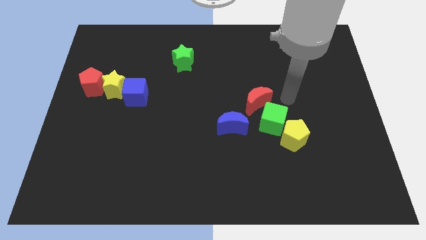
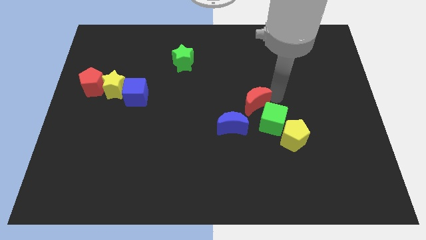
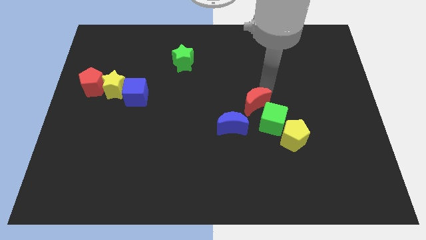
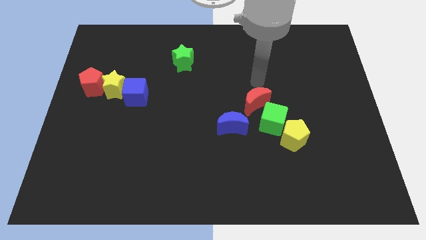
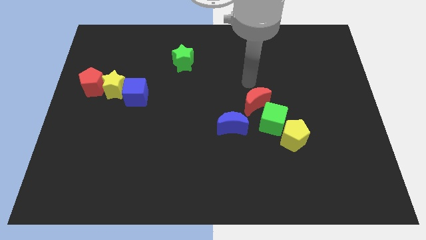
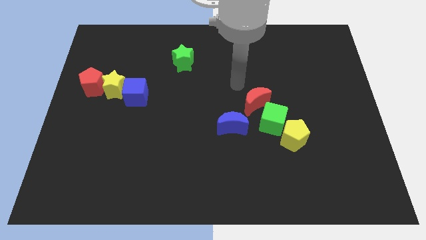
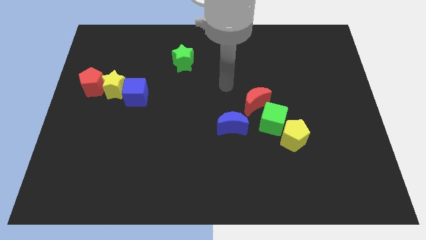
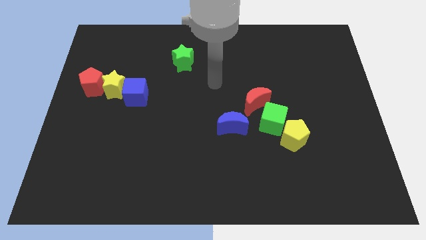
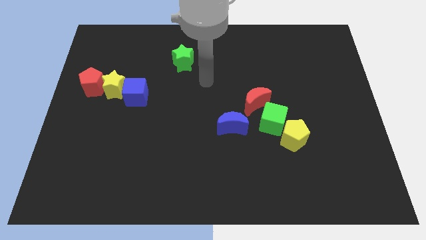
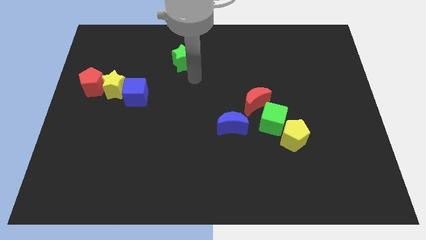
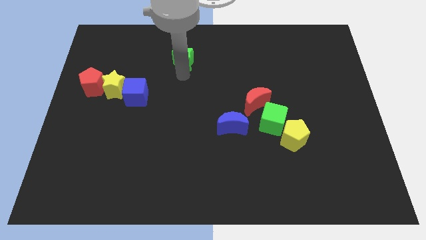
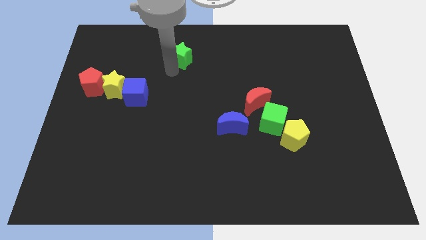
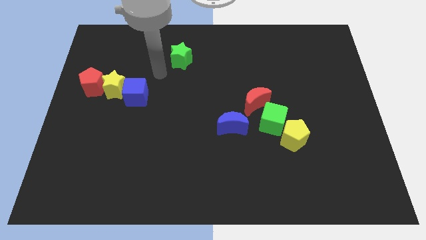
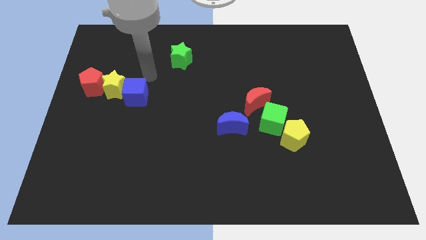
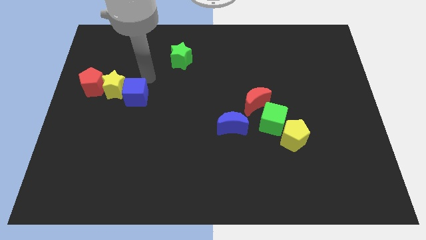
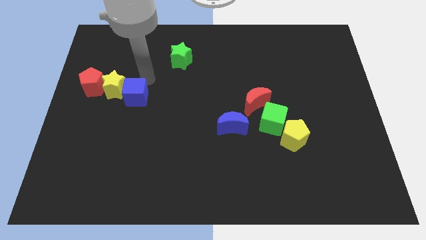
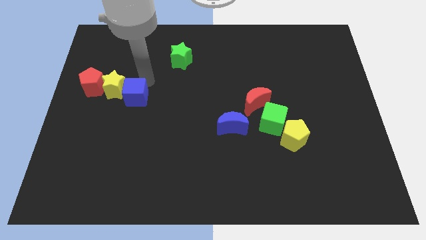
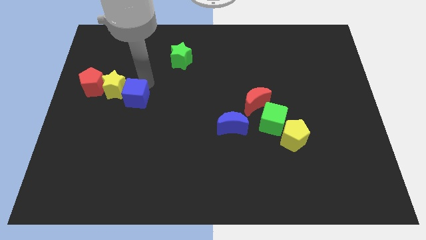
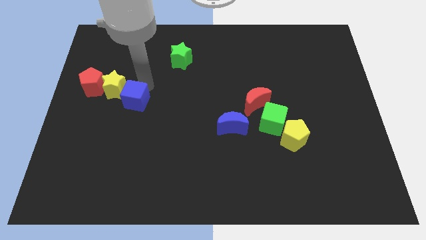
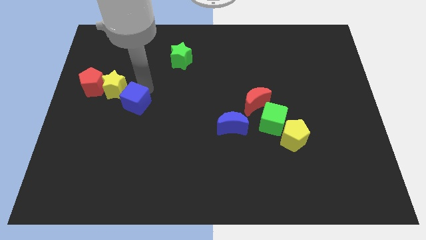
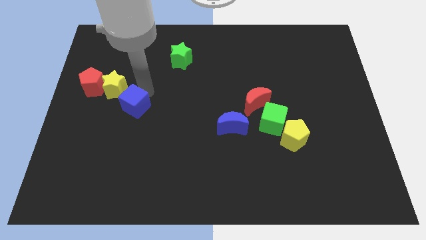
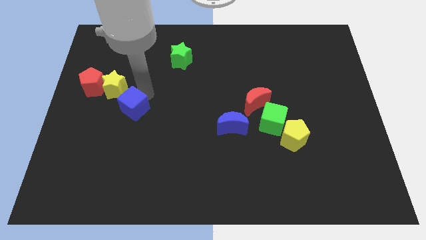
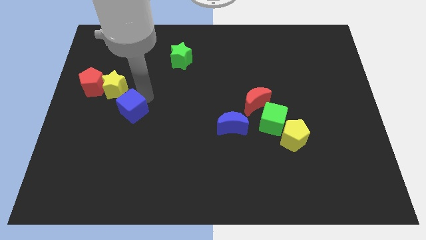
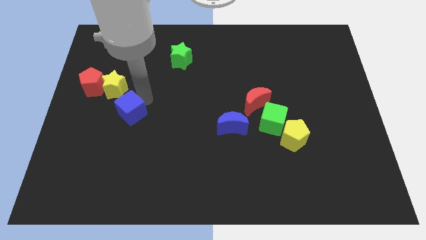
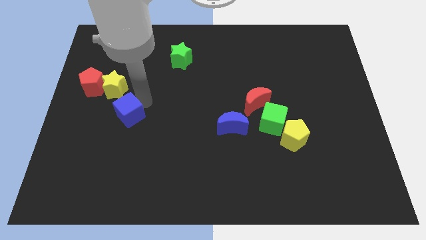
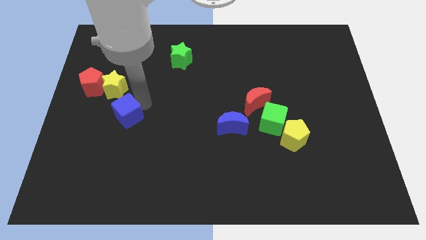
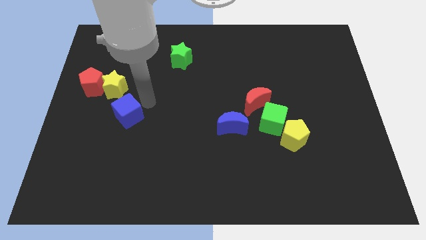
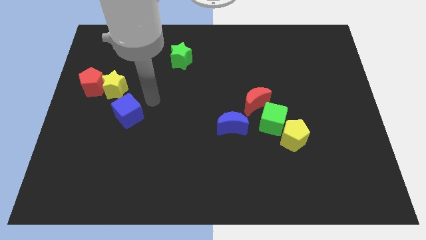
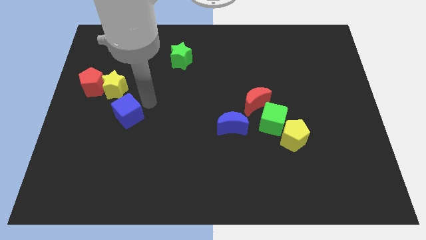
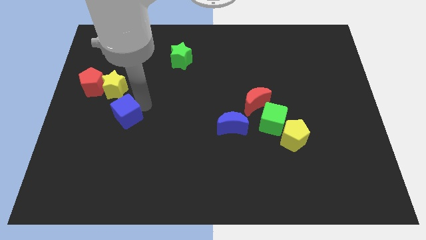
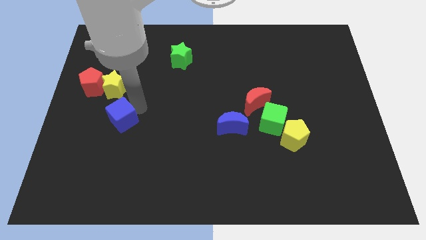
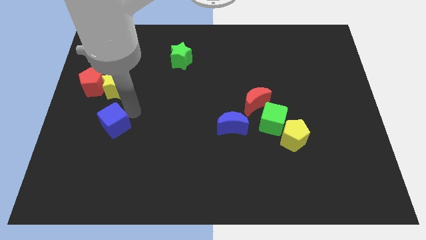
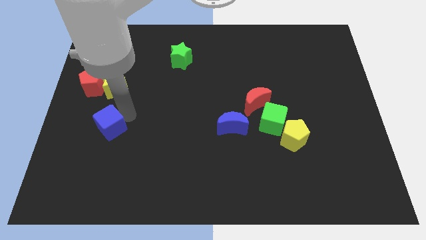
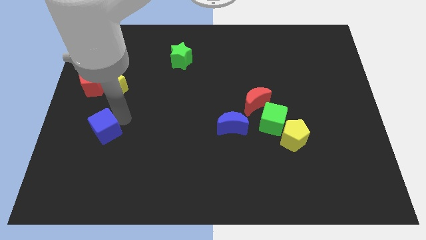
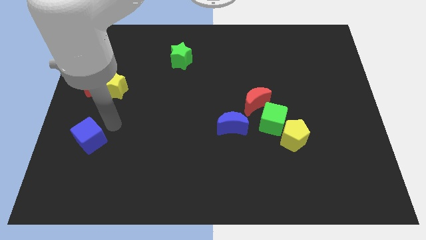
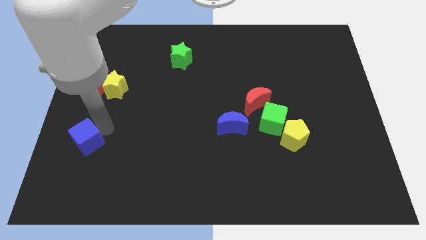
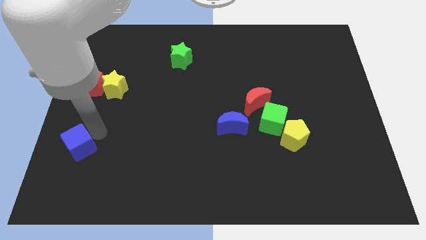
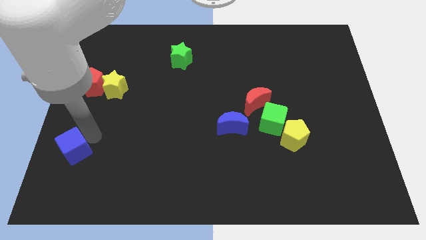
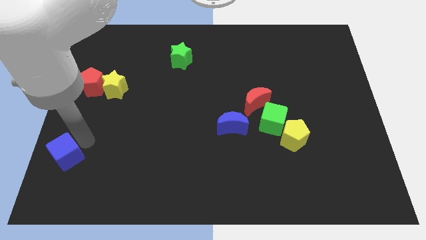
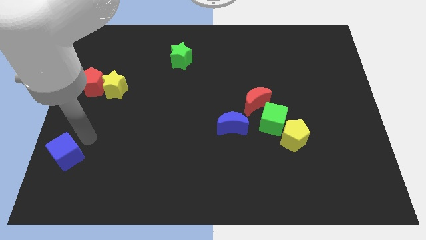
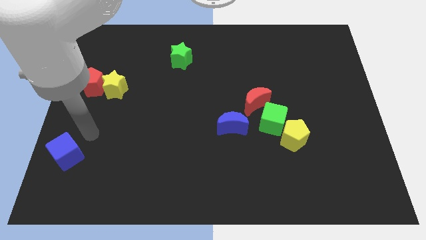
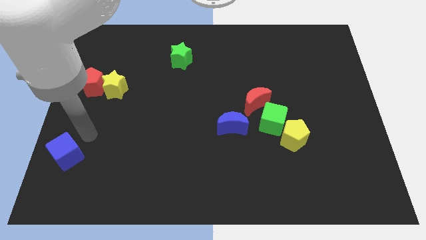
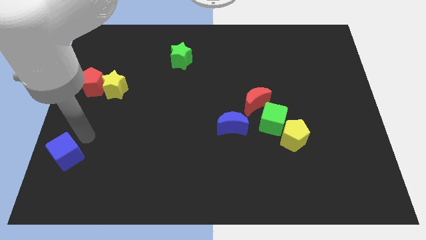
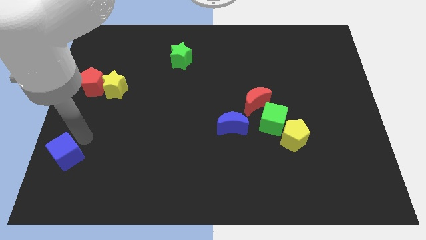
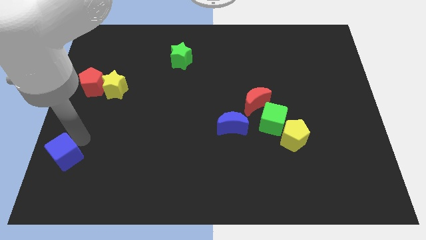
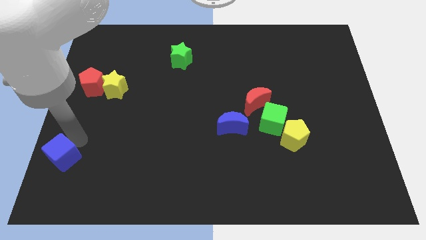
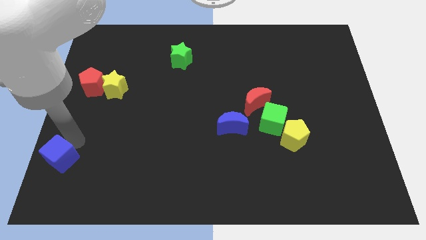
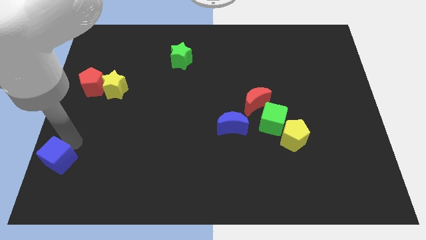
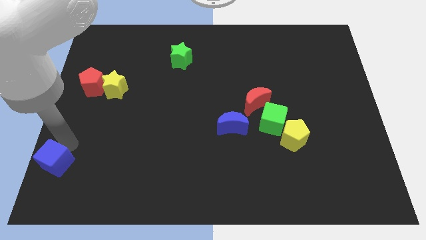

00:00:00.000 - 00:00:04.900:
put the blue cube to the lower left corner

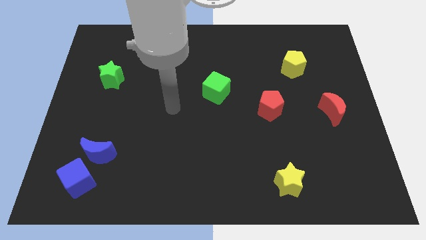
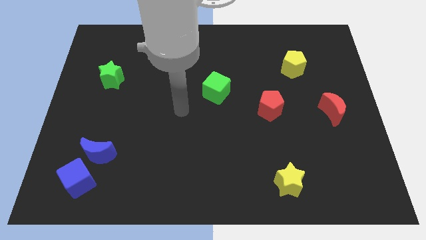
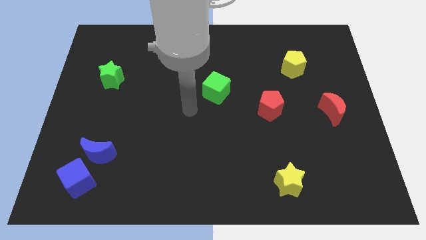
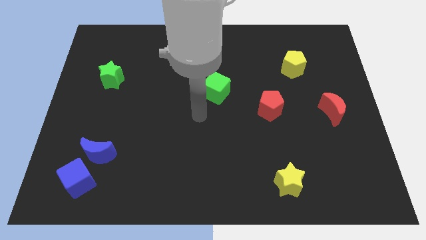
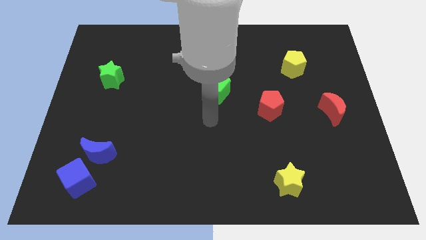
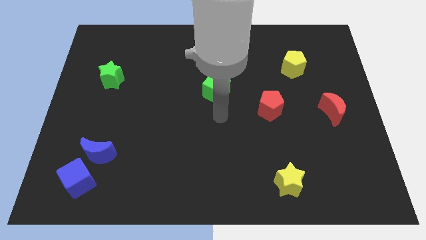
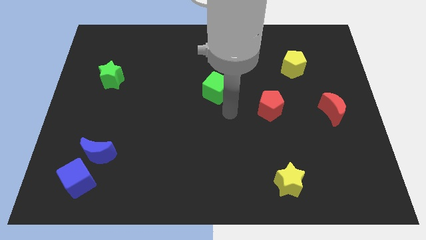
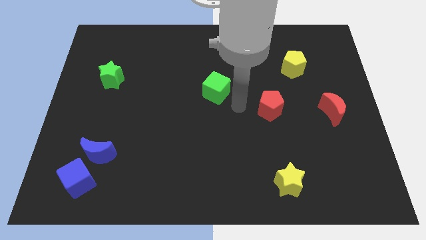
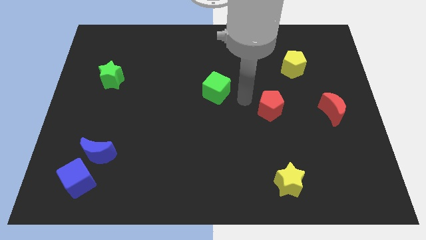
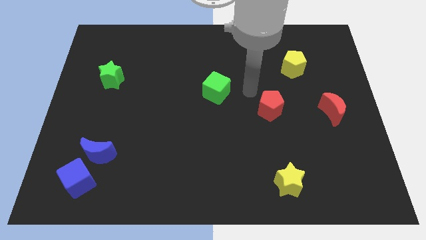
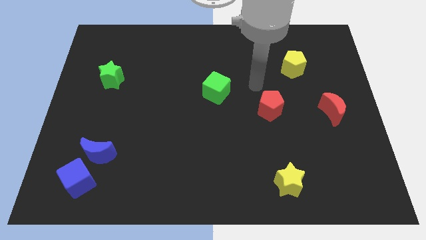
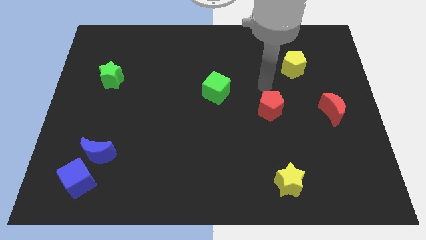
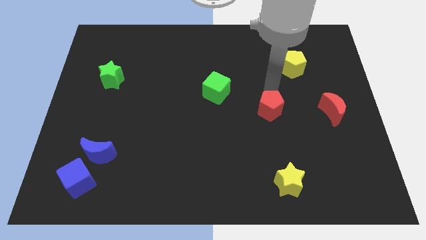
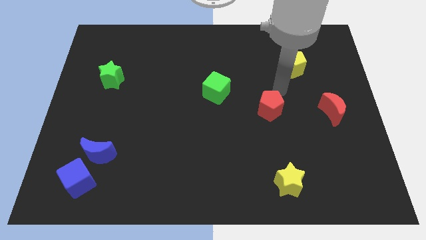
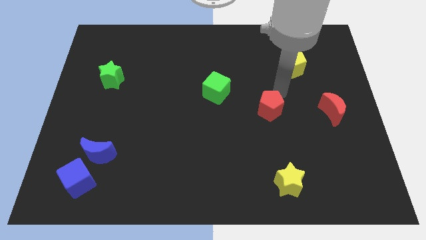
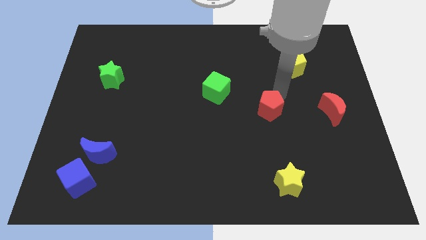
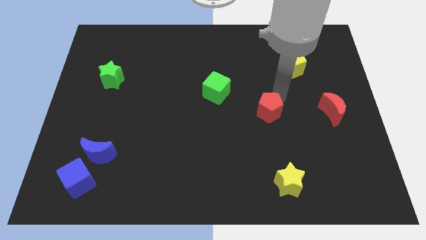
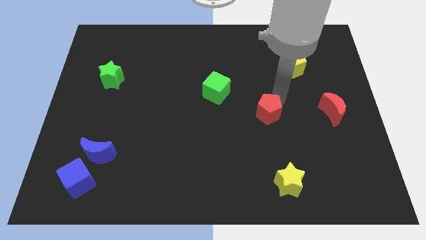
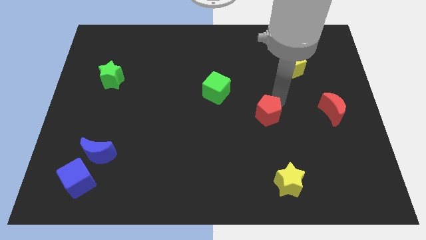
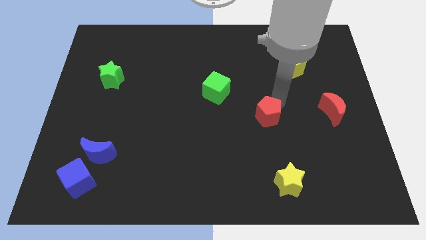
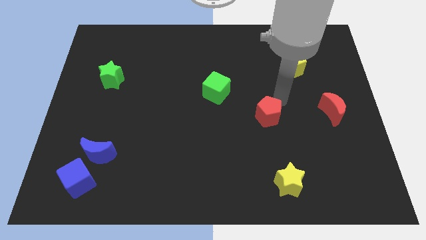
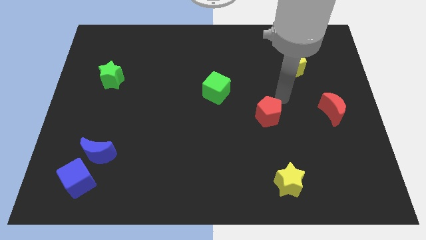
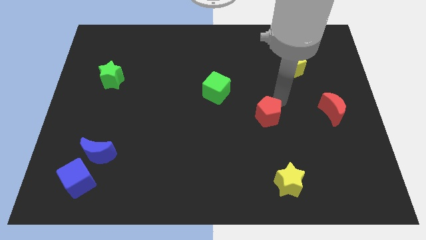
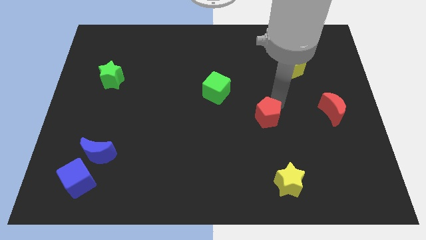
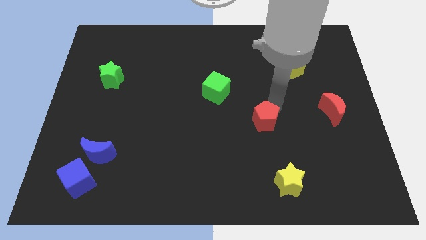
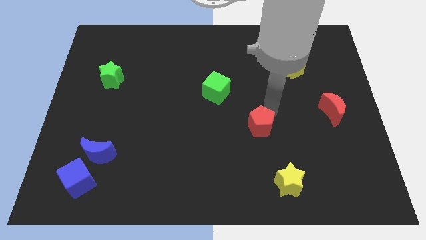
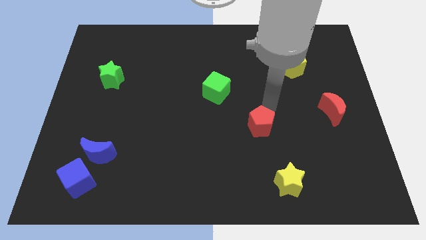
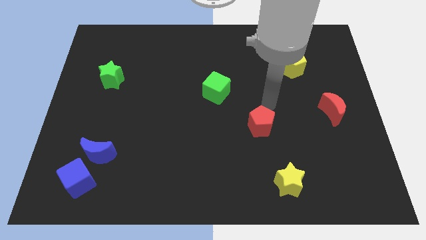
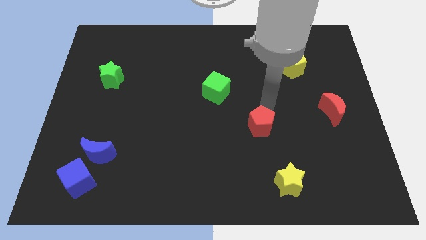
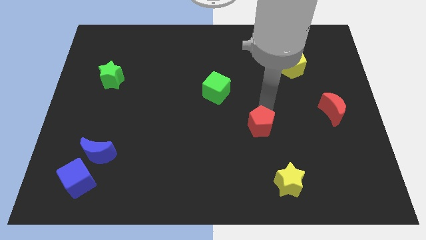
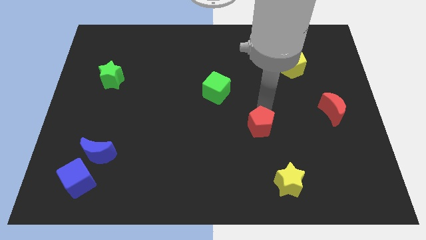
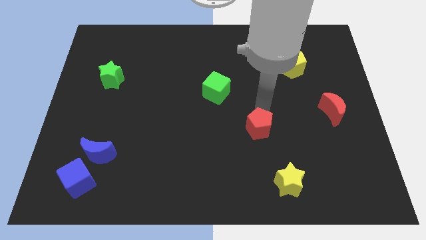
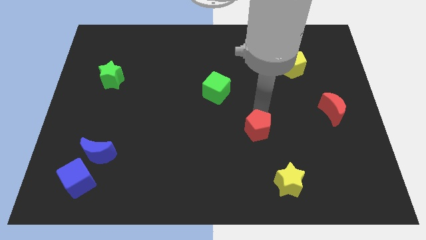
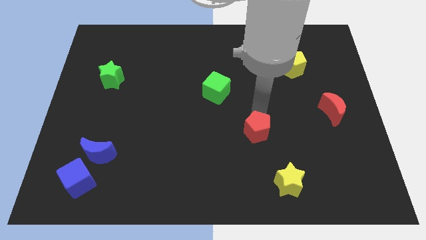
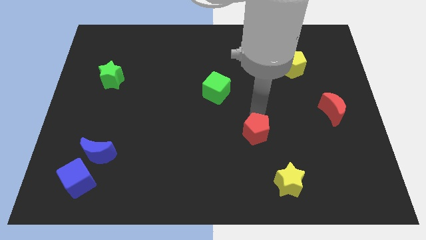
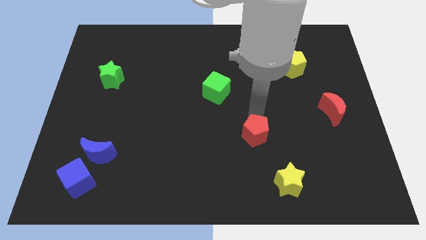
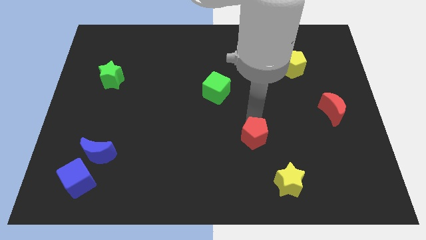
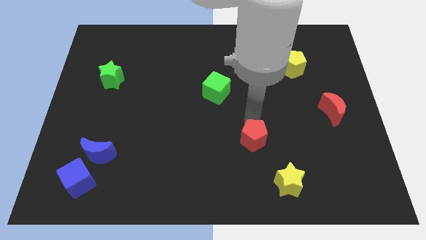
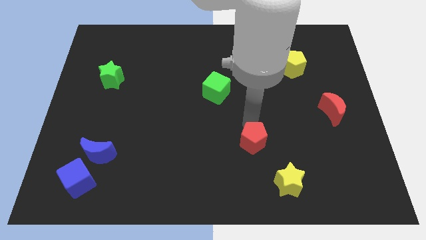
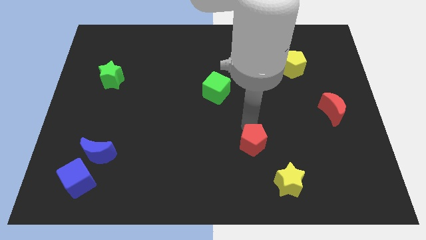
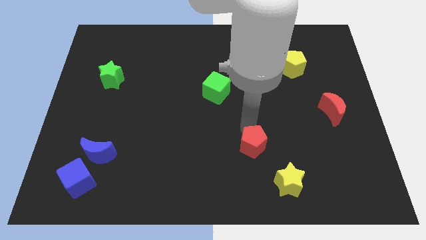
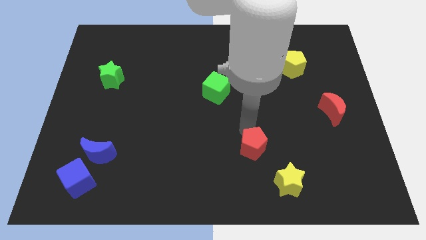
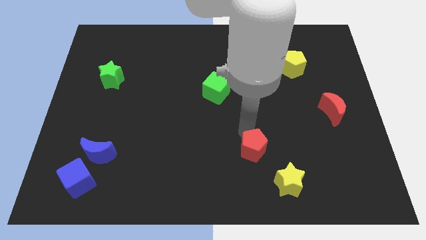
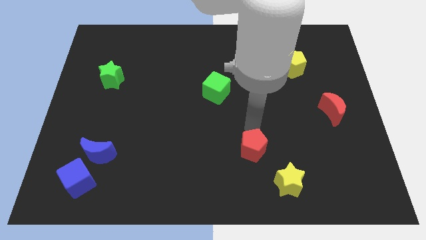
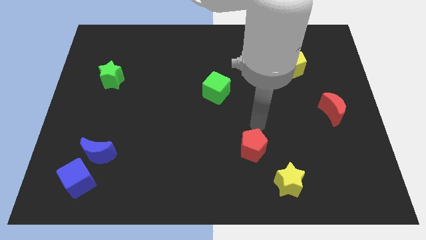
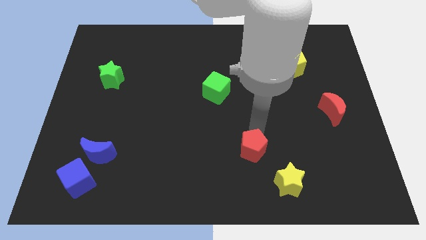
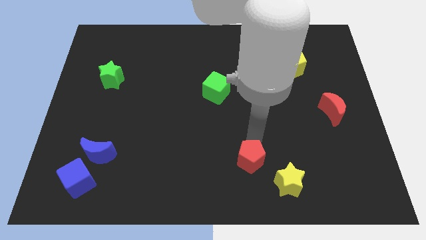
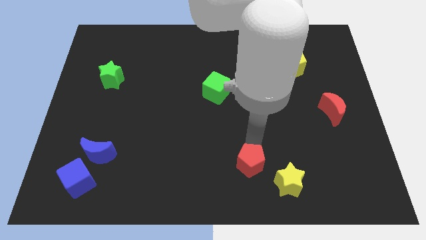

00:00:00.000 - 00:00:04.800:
push the red pentagon to the bottom
